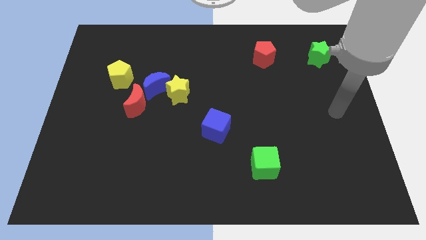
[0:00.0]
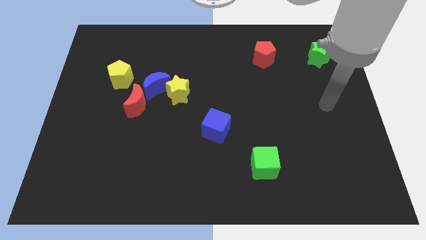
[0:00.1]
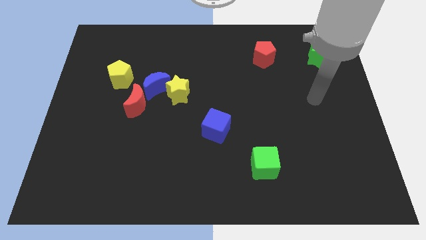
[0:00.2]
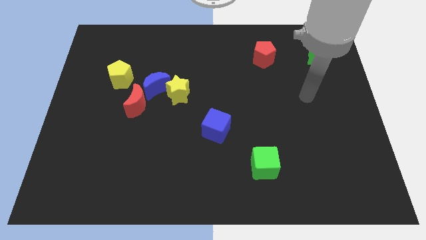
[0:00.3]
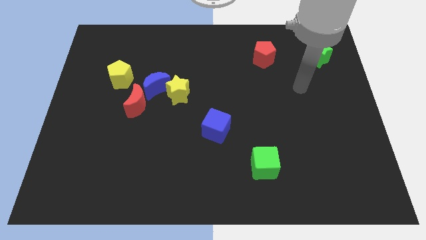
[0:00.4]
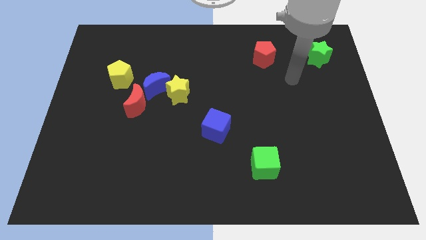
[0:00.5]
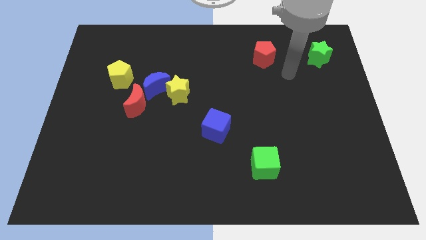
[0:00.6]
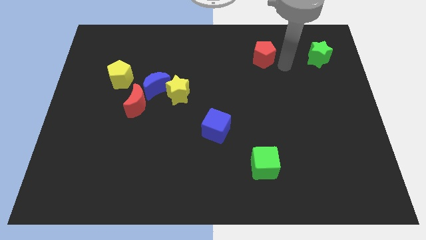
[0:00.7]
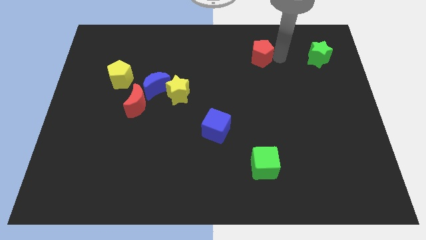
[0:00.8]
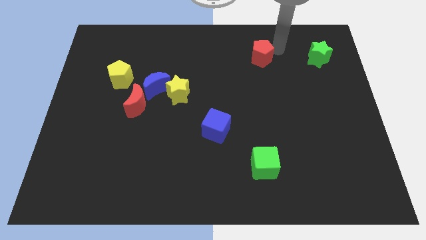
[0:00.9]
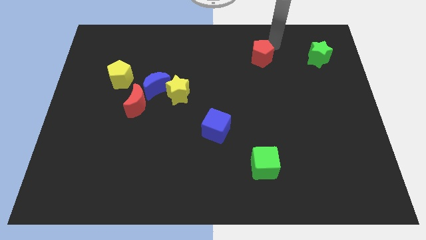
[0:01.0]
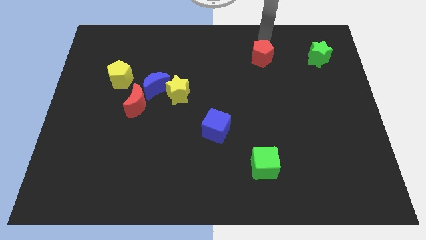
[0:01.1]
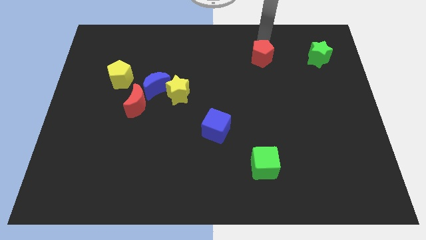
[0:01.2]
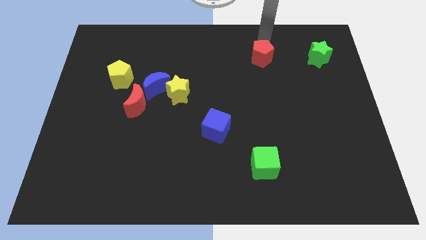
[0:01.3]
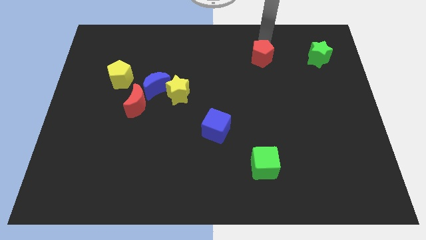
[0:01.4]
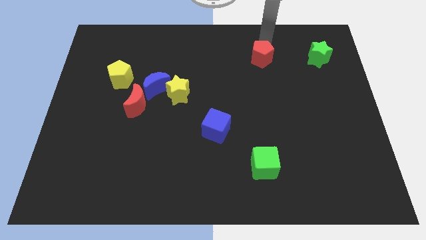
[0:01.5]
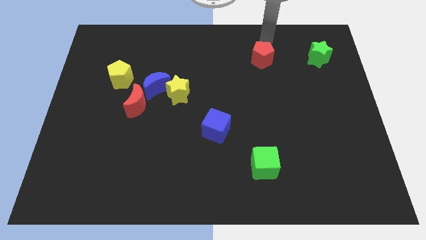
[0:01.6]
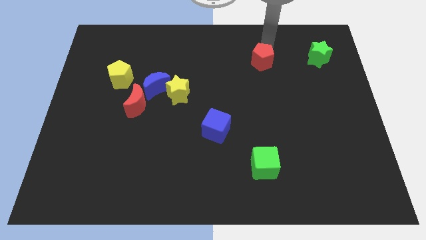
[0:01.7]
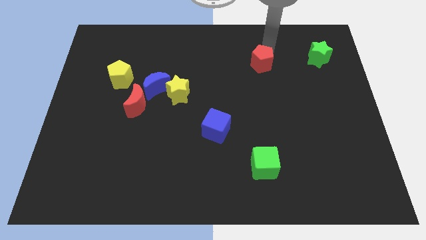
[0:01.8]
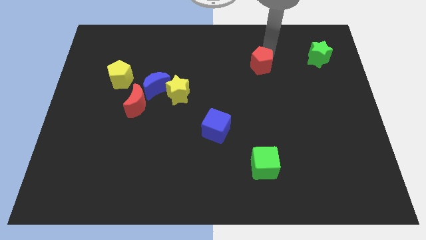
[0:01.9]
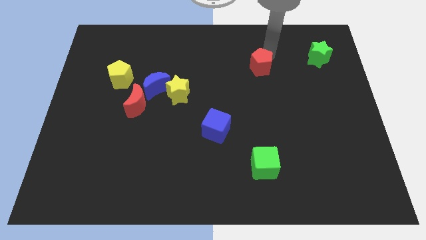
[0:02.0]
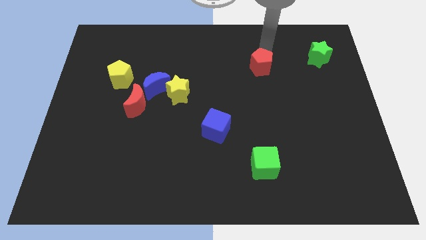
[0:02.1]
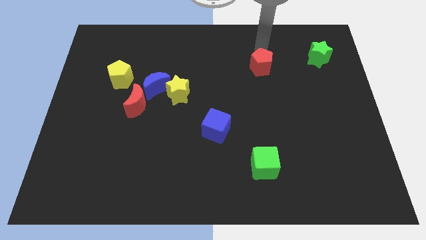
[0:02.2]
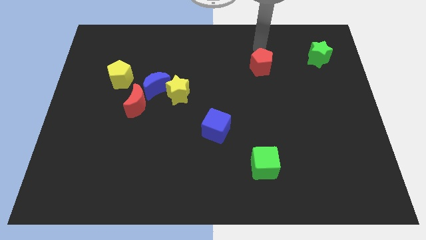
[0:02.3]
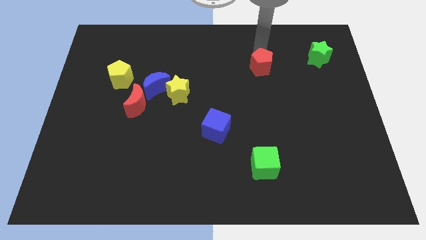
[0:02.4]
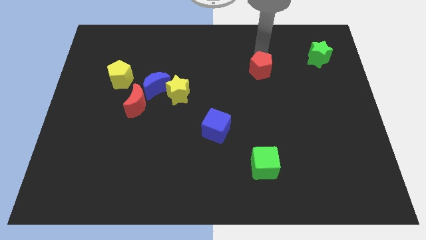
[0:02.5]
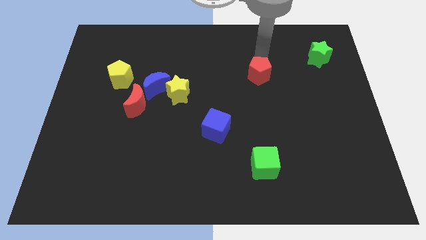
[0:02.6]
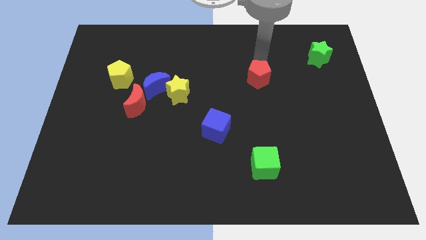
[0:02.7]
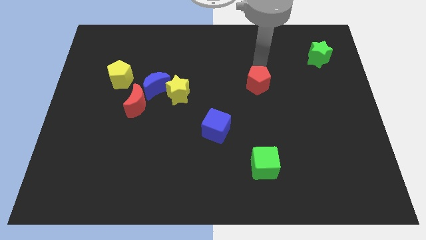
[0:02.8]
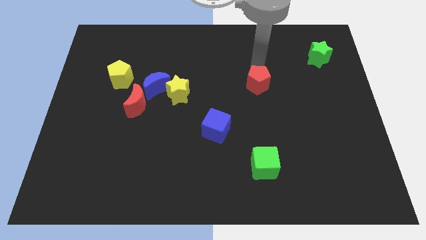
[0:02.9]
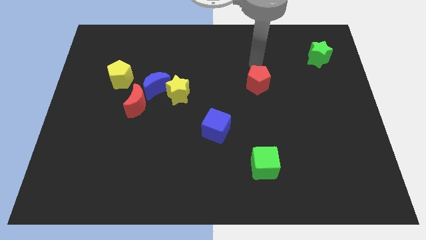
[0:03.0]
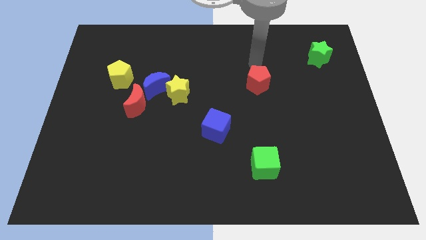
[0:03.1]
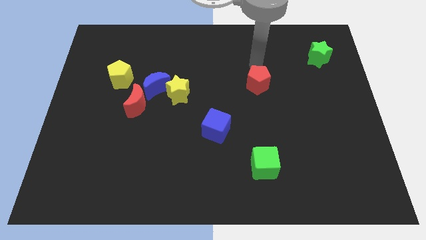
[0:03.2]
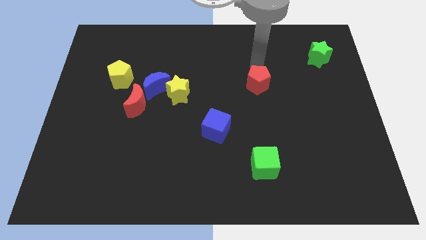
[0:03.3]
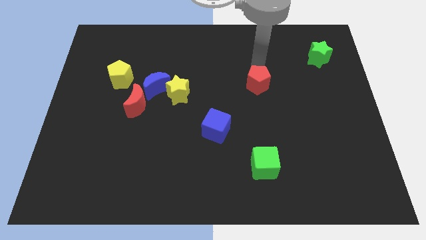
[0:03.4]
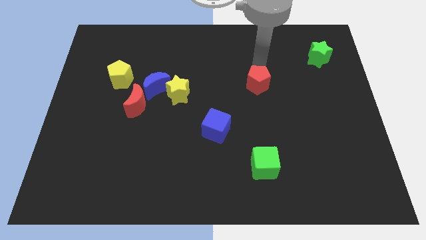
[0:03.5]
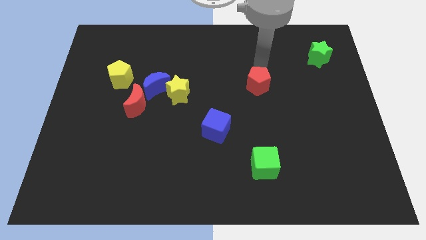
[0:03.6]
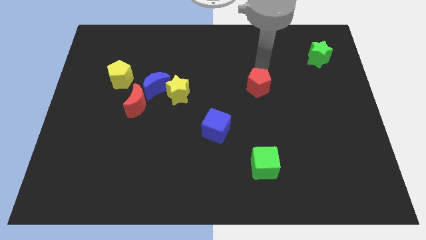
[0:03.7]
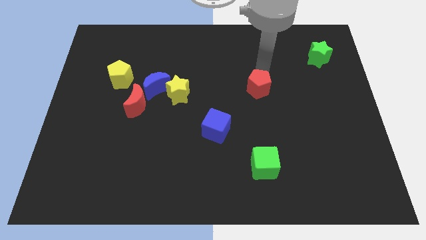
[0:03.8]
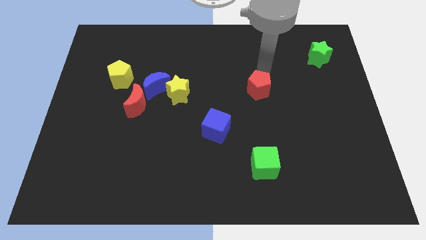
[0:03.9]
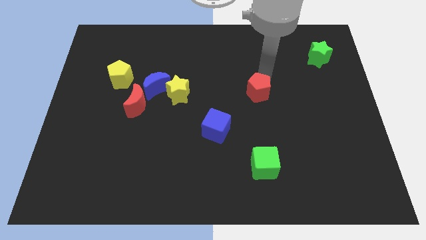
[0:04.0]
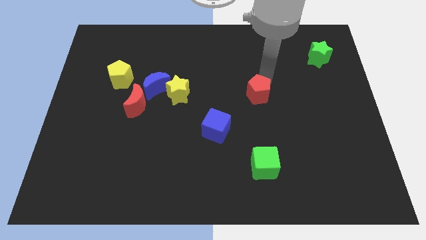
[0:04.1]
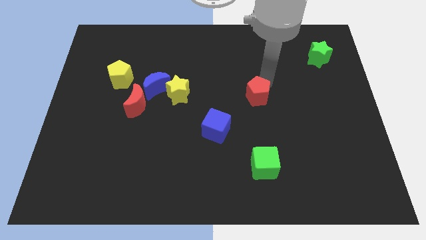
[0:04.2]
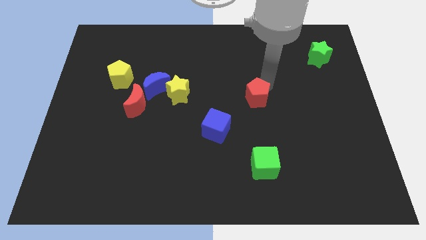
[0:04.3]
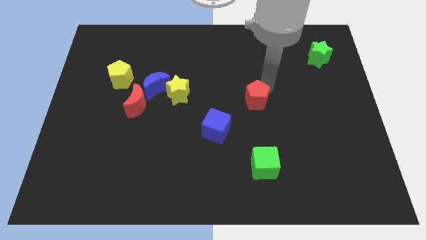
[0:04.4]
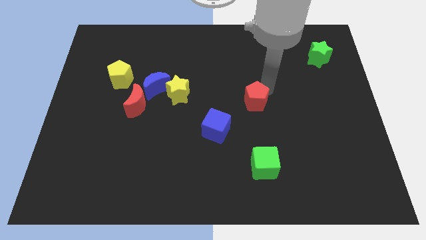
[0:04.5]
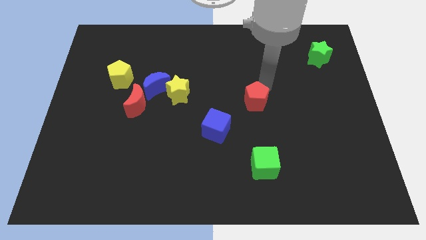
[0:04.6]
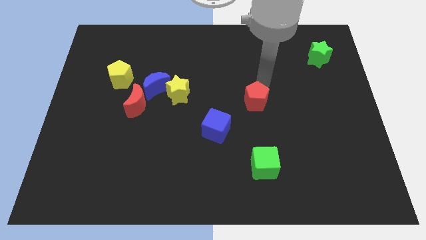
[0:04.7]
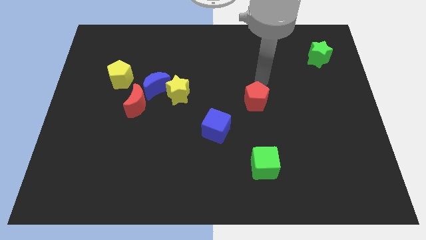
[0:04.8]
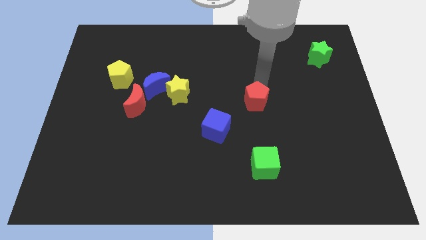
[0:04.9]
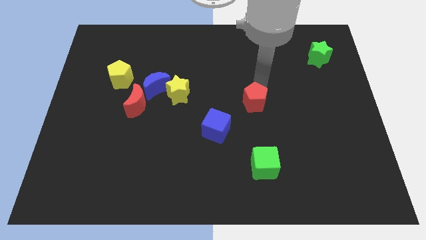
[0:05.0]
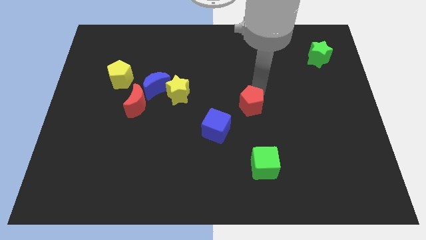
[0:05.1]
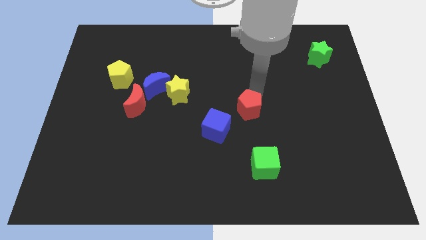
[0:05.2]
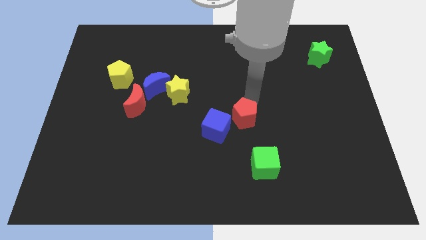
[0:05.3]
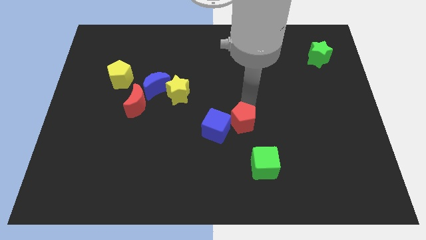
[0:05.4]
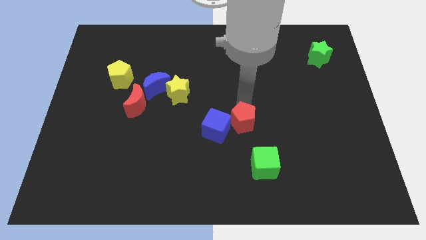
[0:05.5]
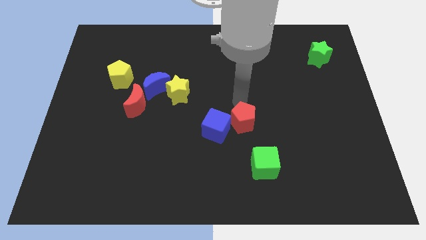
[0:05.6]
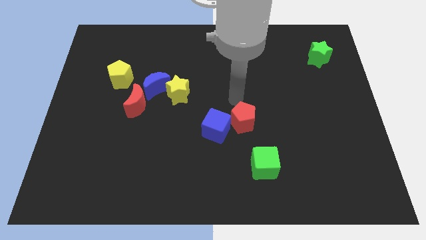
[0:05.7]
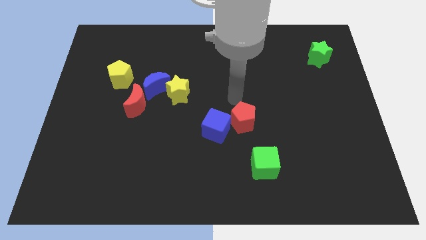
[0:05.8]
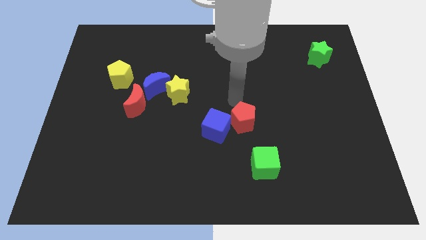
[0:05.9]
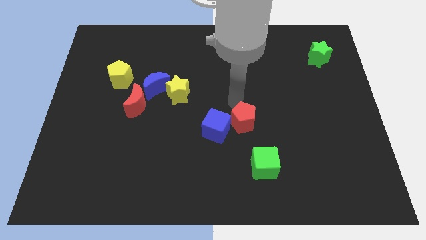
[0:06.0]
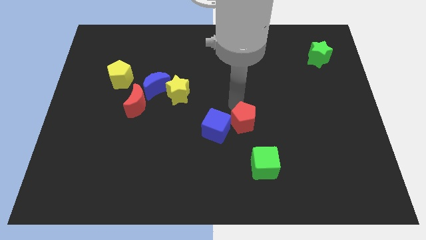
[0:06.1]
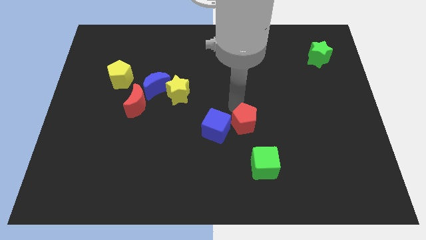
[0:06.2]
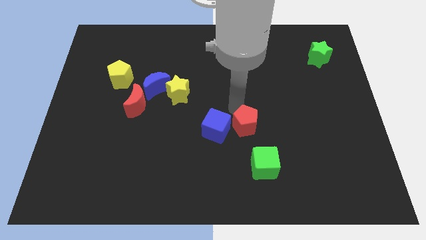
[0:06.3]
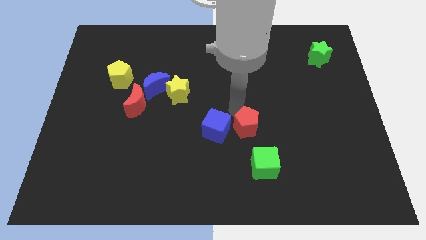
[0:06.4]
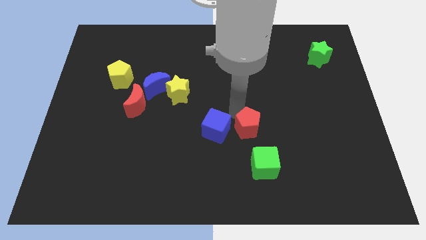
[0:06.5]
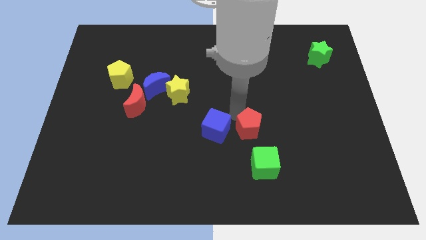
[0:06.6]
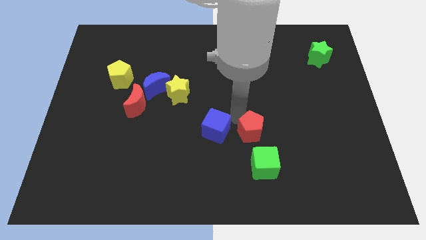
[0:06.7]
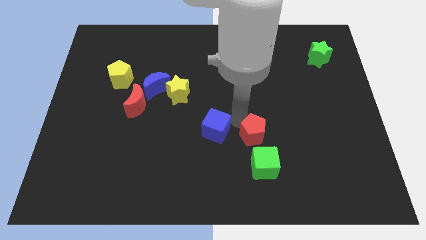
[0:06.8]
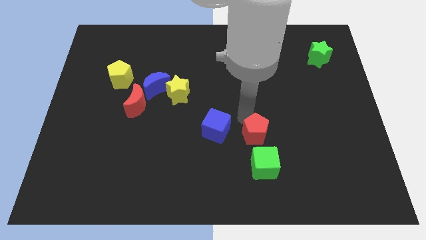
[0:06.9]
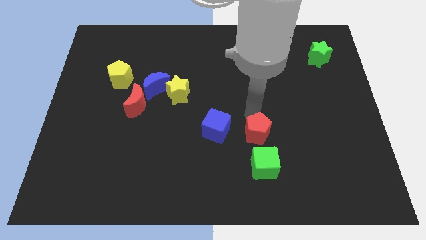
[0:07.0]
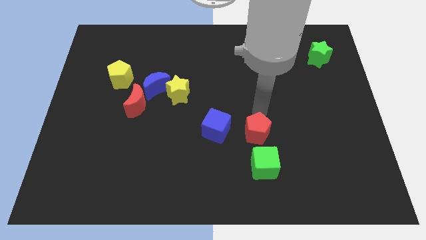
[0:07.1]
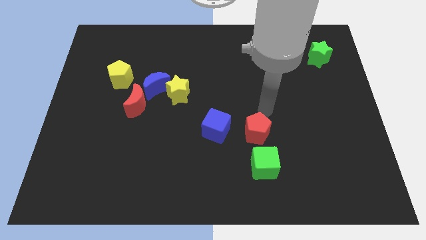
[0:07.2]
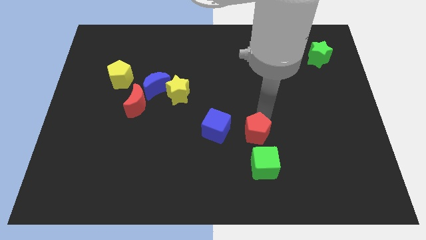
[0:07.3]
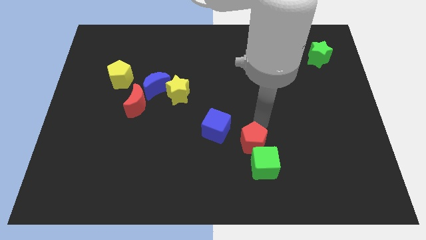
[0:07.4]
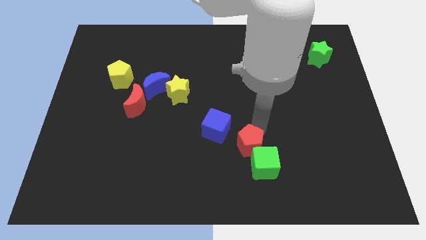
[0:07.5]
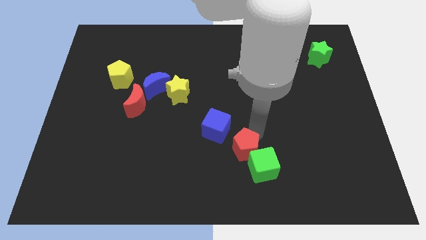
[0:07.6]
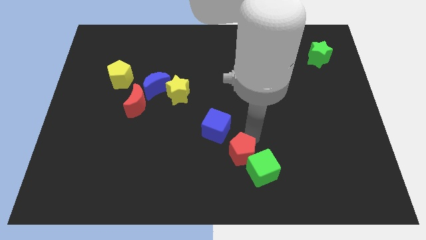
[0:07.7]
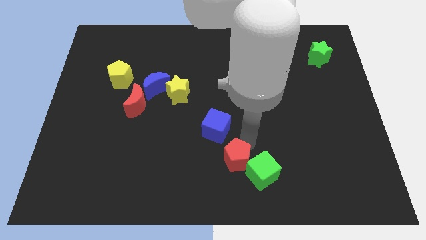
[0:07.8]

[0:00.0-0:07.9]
move the red pentagon to the bottom side

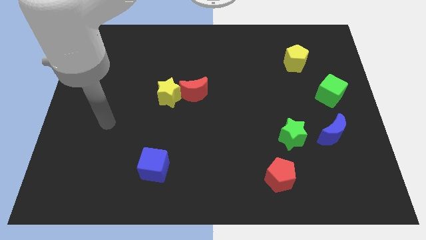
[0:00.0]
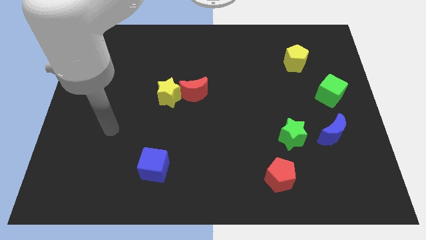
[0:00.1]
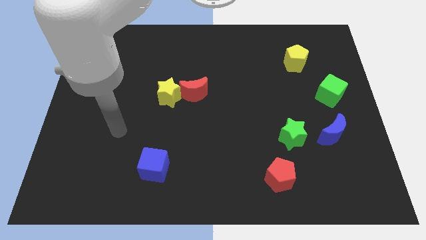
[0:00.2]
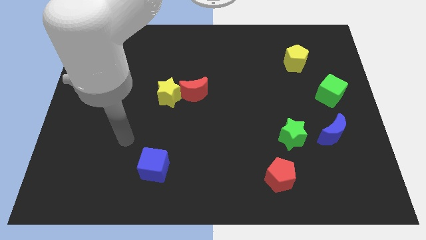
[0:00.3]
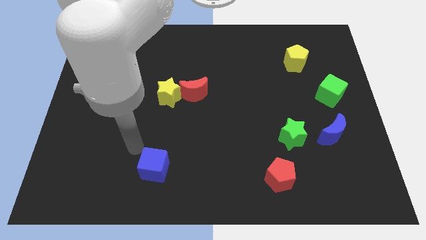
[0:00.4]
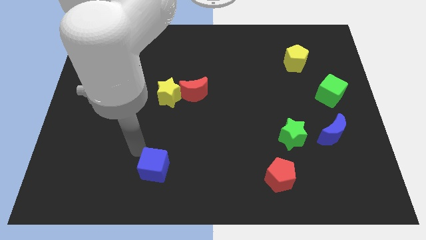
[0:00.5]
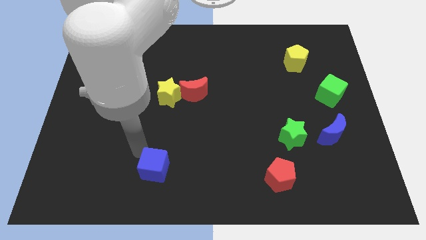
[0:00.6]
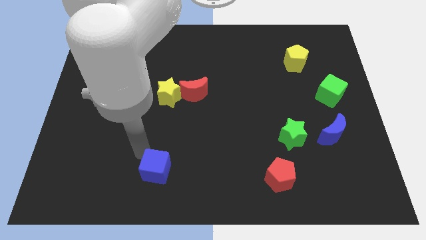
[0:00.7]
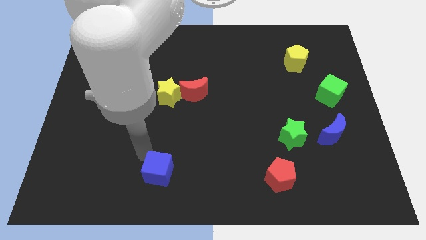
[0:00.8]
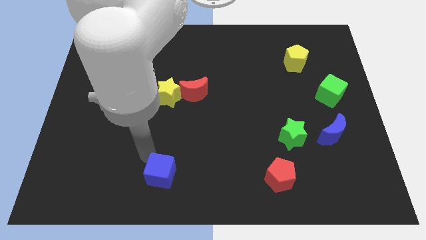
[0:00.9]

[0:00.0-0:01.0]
move the blue cube to the bottom side
